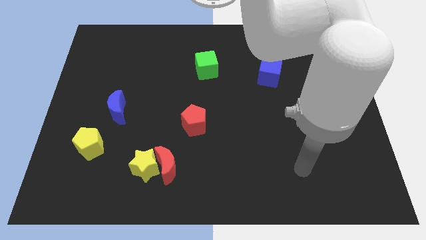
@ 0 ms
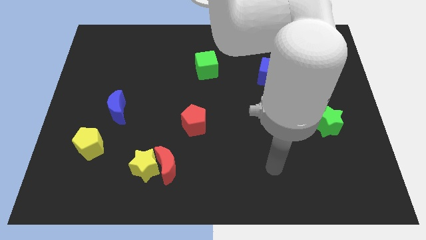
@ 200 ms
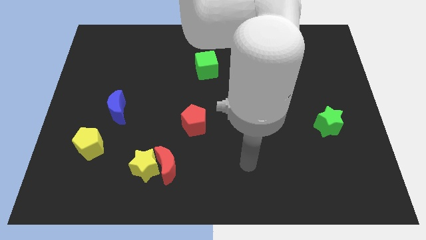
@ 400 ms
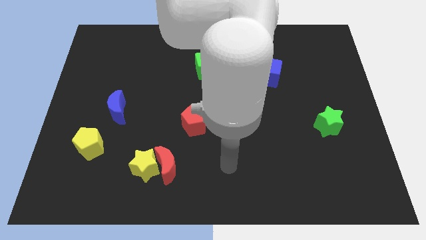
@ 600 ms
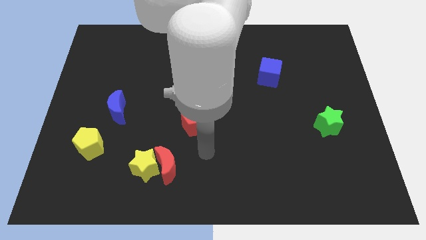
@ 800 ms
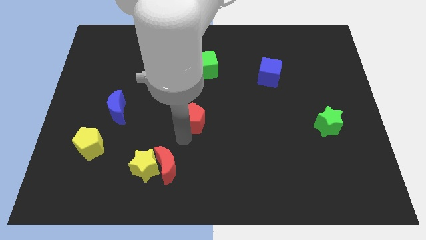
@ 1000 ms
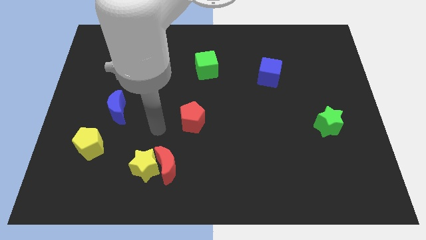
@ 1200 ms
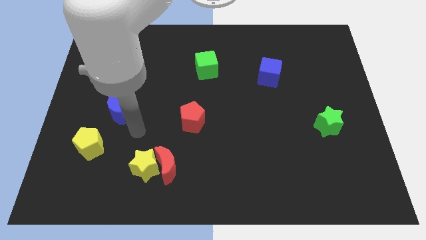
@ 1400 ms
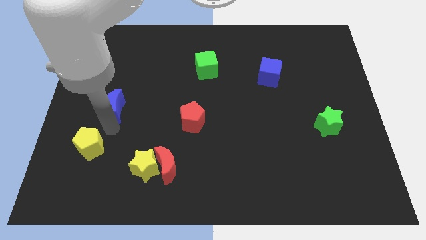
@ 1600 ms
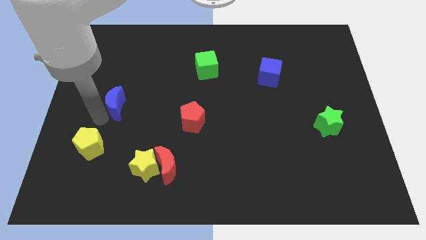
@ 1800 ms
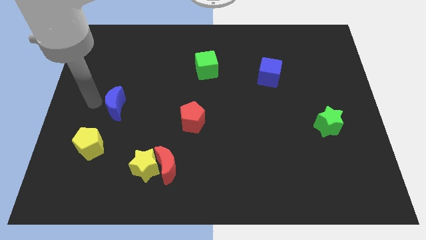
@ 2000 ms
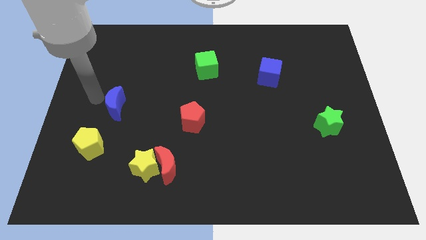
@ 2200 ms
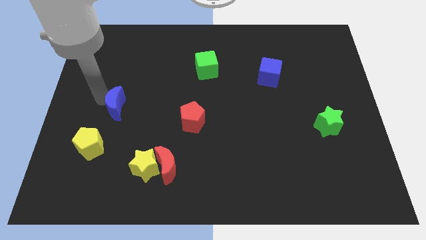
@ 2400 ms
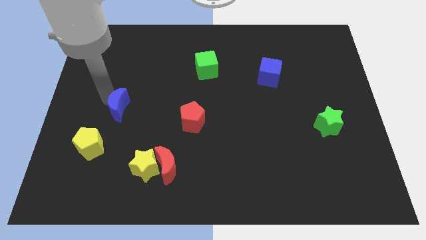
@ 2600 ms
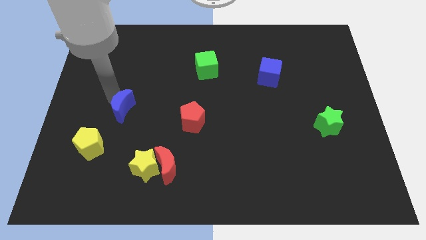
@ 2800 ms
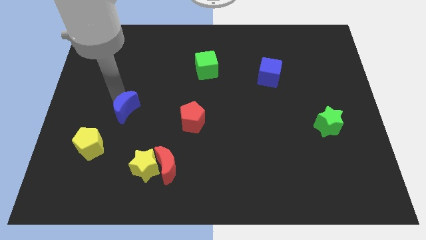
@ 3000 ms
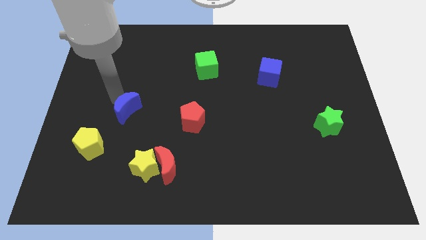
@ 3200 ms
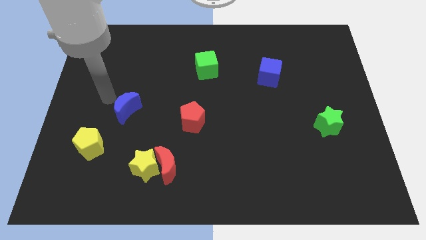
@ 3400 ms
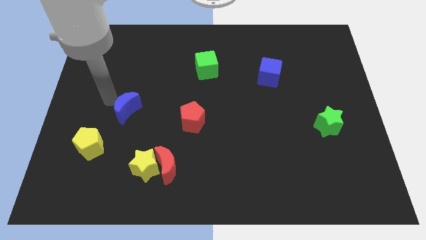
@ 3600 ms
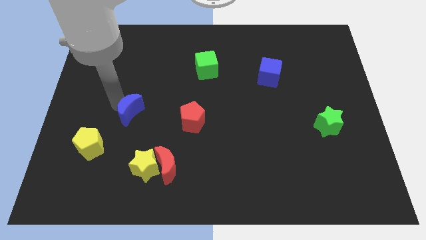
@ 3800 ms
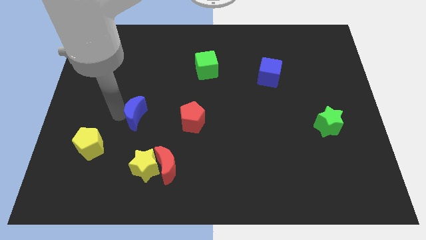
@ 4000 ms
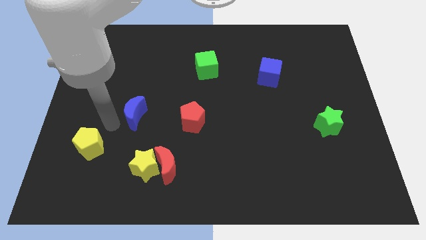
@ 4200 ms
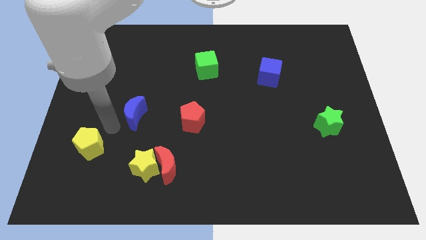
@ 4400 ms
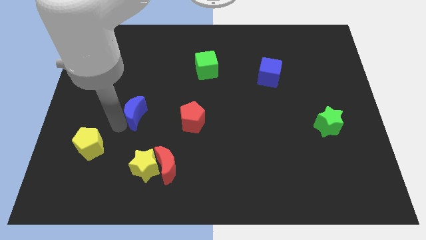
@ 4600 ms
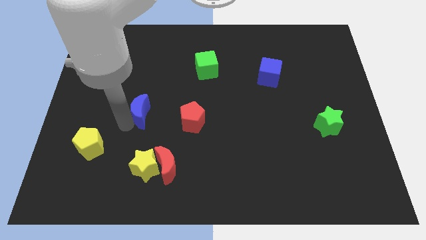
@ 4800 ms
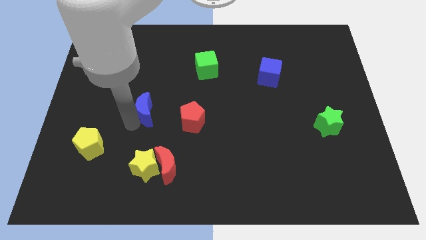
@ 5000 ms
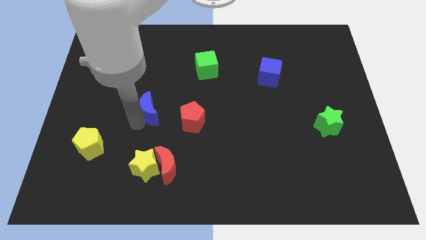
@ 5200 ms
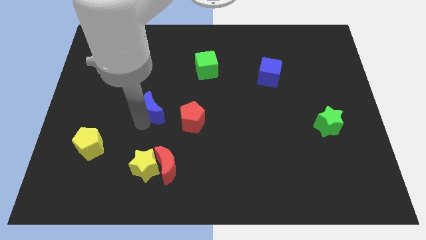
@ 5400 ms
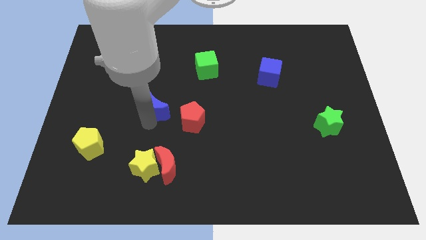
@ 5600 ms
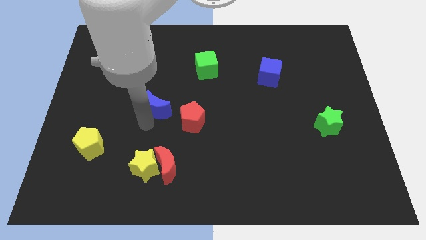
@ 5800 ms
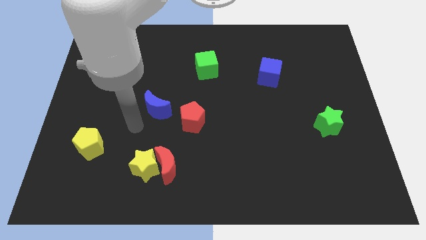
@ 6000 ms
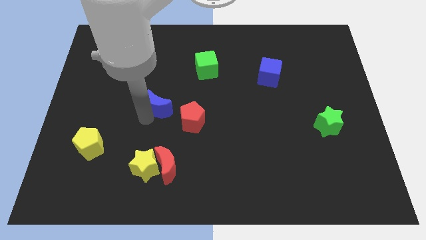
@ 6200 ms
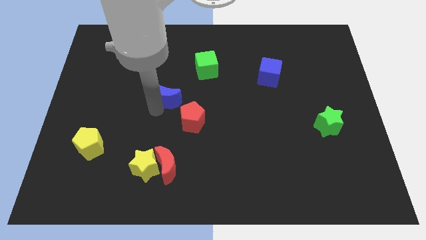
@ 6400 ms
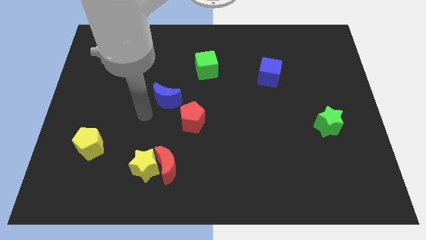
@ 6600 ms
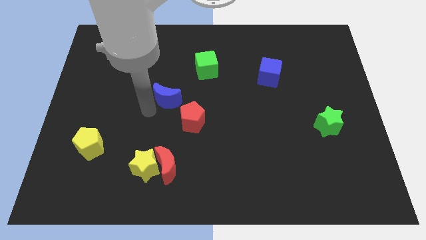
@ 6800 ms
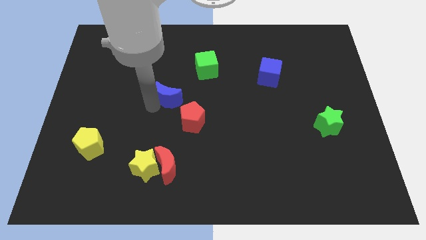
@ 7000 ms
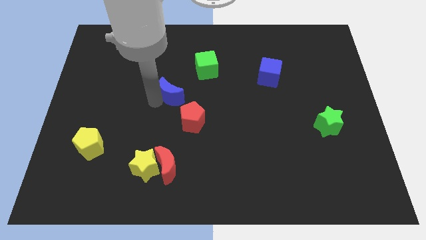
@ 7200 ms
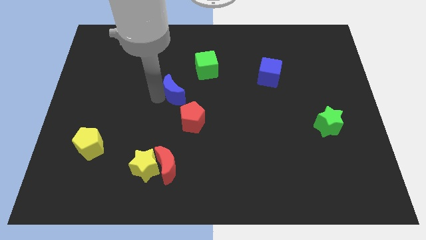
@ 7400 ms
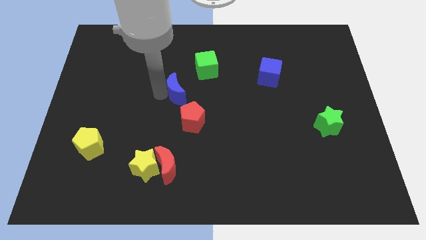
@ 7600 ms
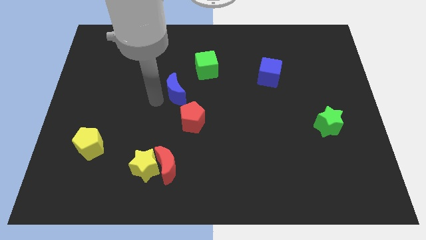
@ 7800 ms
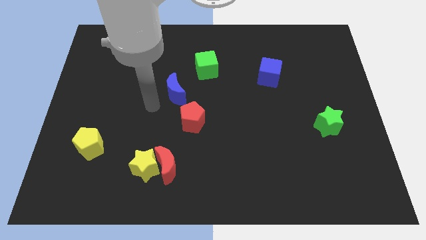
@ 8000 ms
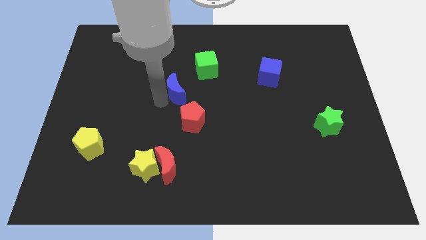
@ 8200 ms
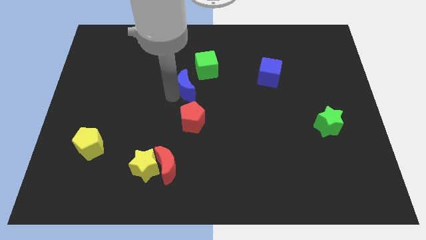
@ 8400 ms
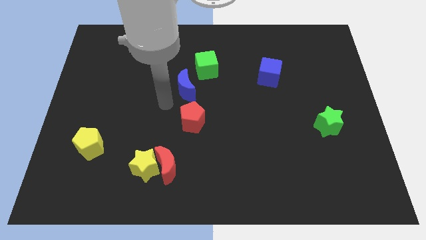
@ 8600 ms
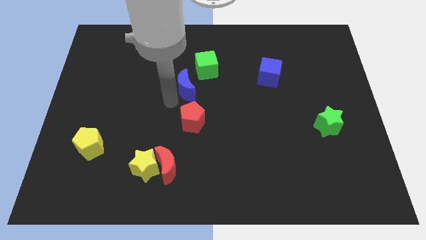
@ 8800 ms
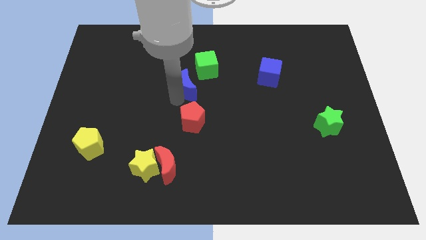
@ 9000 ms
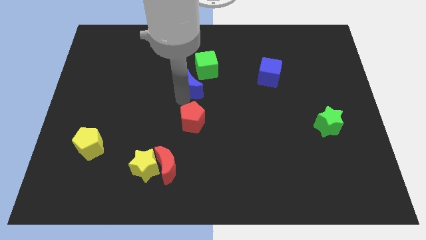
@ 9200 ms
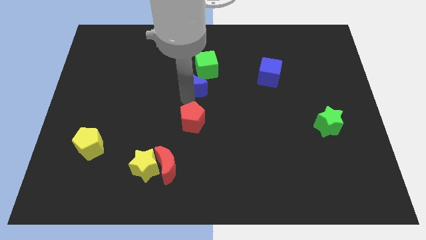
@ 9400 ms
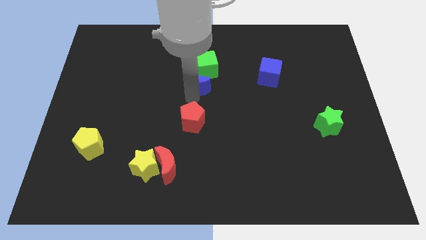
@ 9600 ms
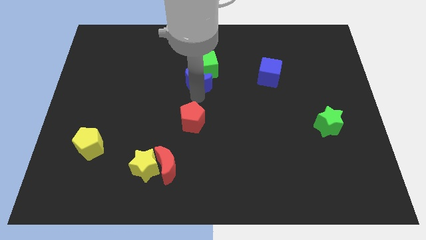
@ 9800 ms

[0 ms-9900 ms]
push the blue moon next to the green cube

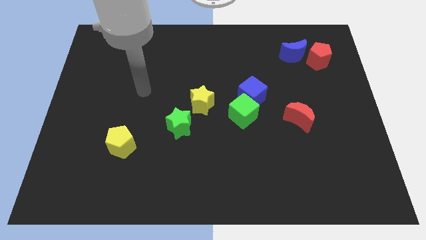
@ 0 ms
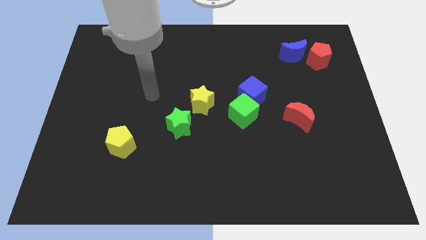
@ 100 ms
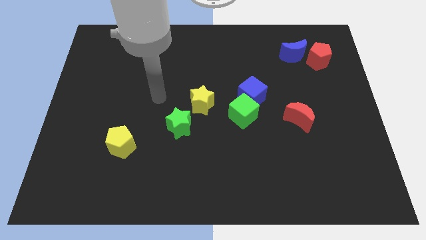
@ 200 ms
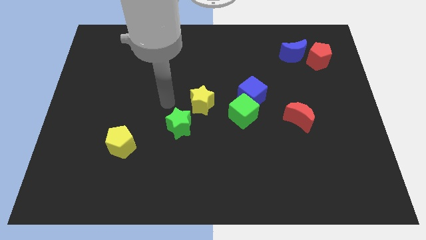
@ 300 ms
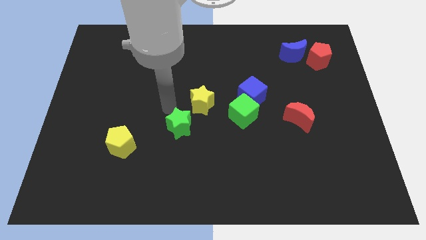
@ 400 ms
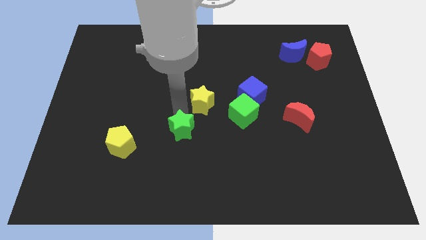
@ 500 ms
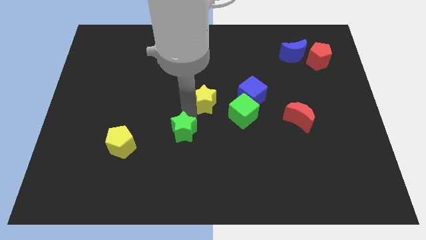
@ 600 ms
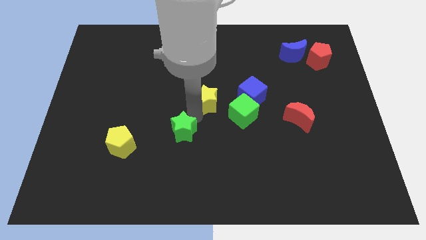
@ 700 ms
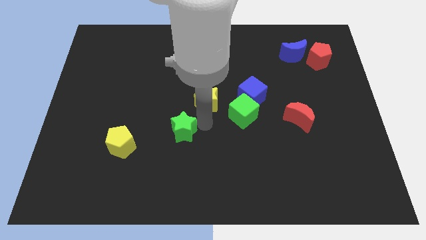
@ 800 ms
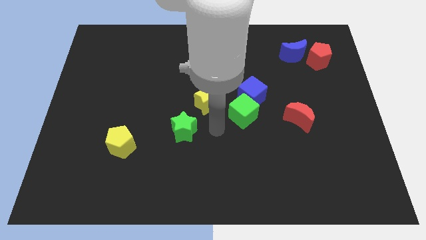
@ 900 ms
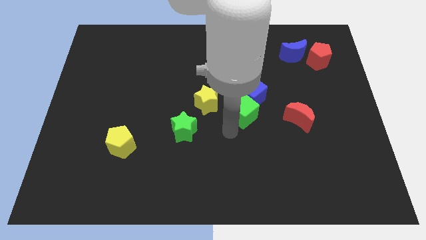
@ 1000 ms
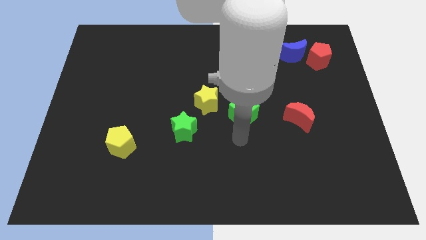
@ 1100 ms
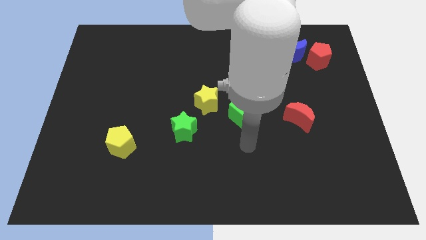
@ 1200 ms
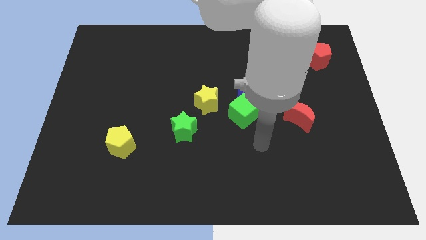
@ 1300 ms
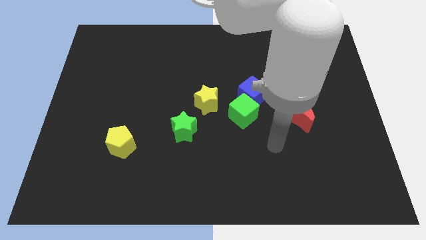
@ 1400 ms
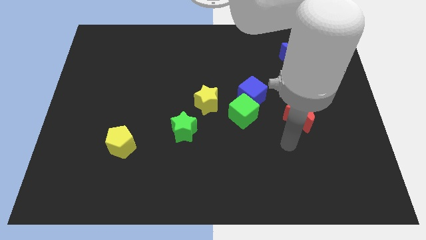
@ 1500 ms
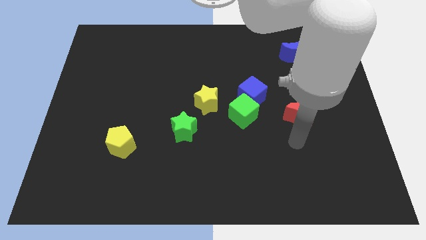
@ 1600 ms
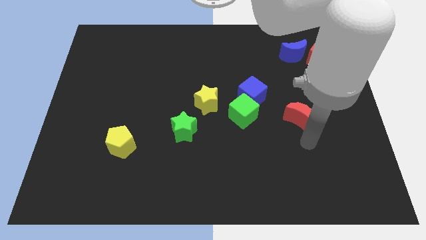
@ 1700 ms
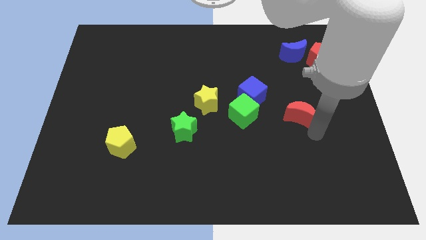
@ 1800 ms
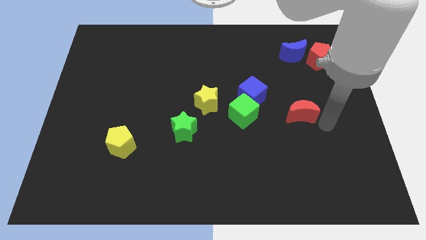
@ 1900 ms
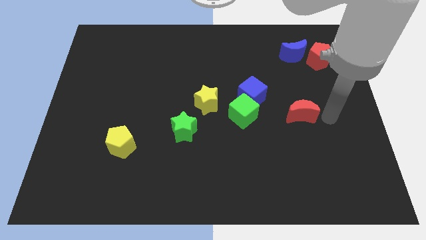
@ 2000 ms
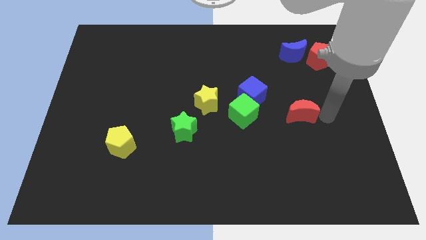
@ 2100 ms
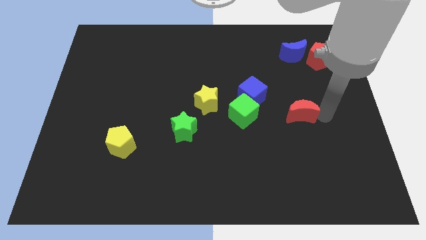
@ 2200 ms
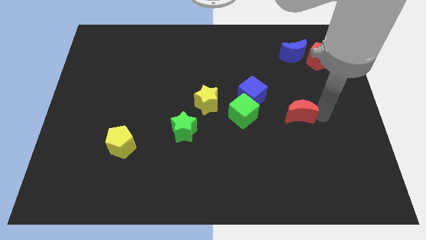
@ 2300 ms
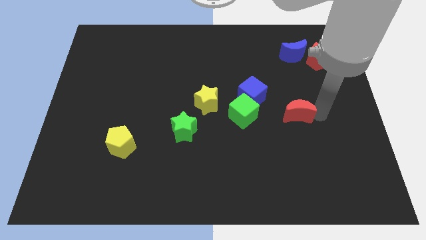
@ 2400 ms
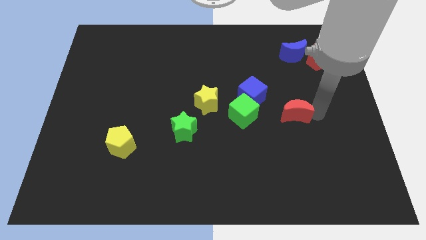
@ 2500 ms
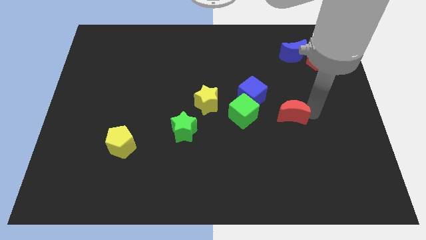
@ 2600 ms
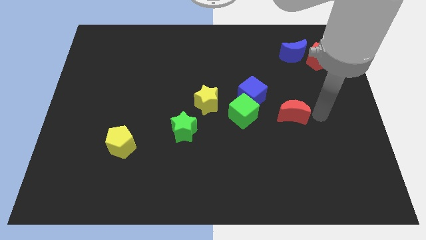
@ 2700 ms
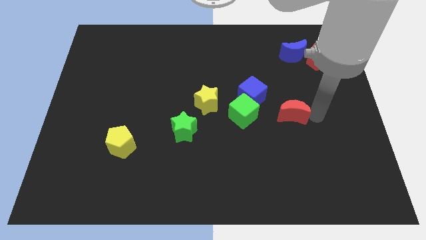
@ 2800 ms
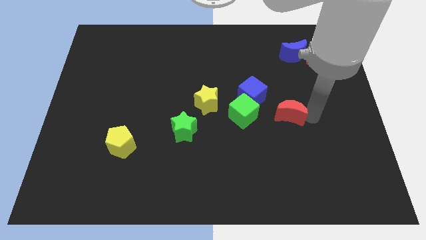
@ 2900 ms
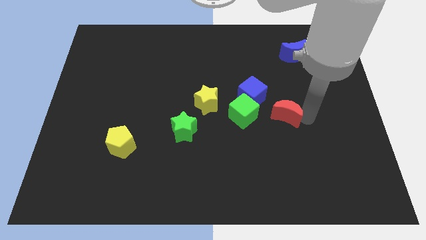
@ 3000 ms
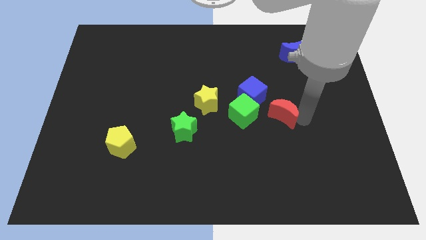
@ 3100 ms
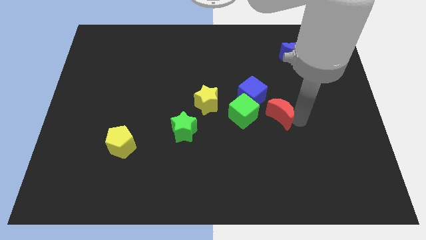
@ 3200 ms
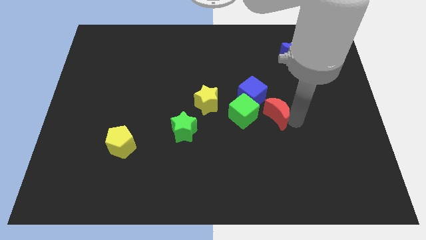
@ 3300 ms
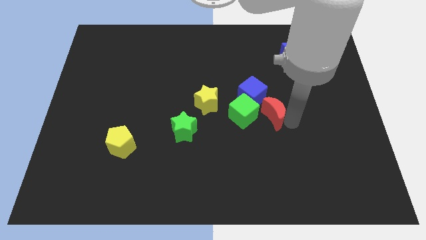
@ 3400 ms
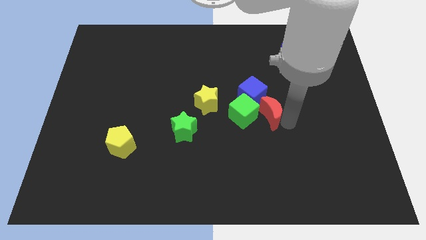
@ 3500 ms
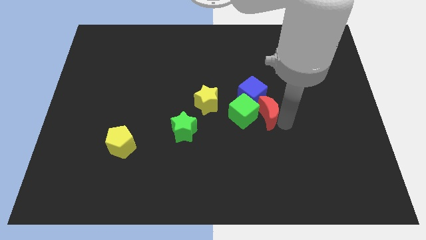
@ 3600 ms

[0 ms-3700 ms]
push the red moon close to the green cube
